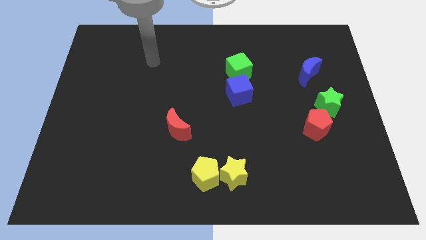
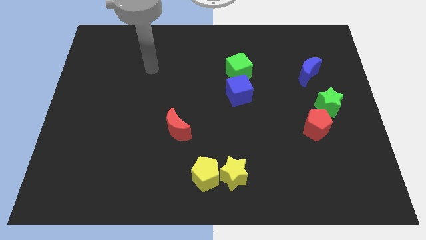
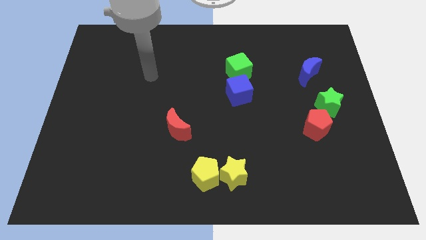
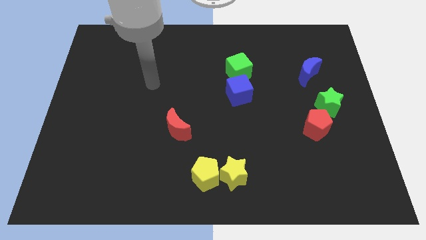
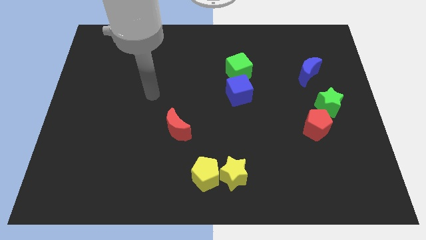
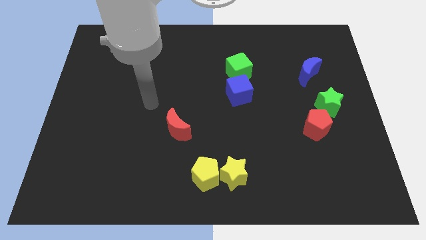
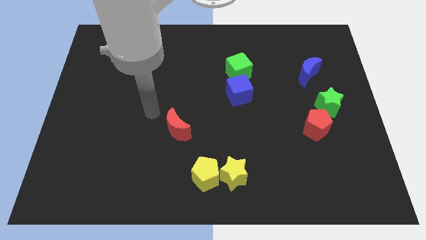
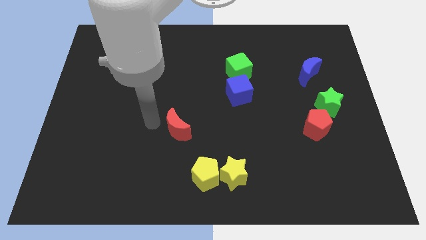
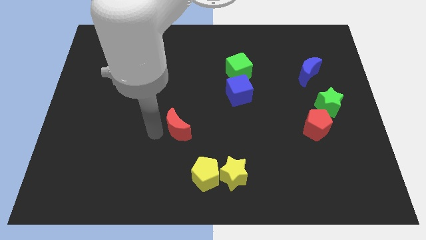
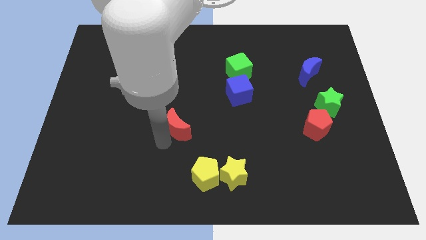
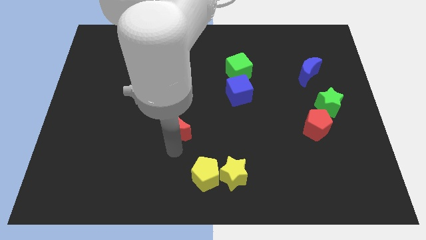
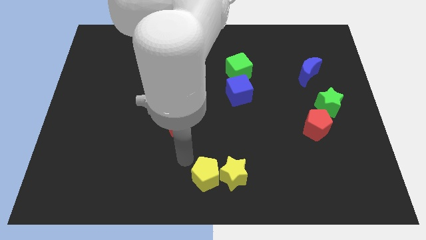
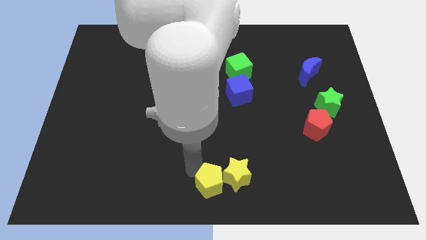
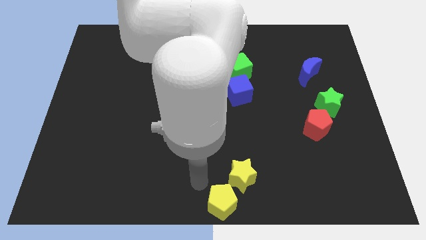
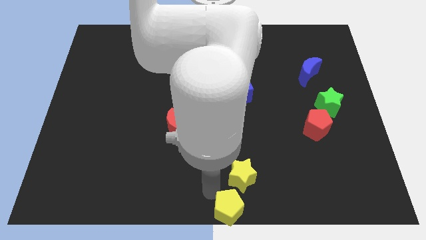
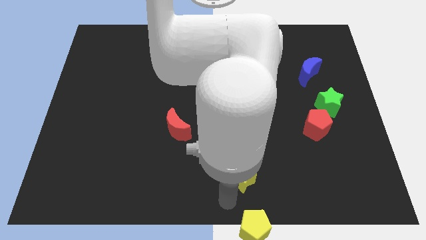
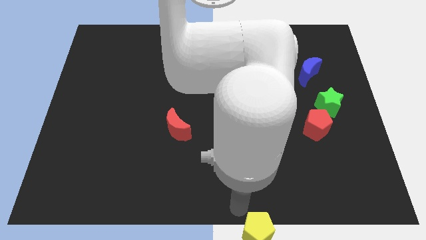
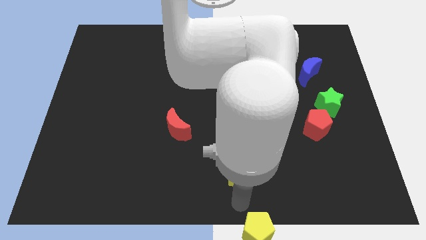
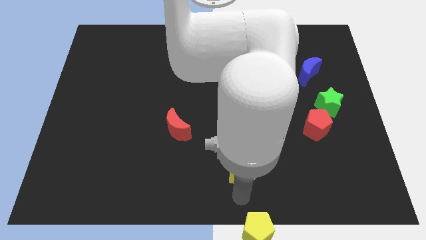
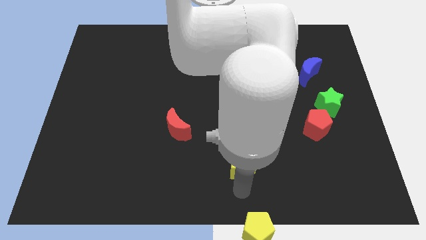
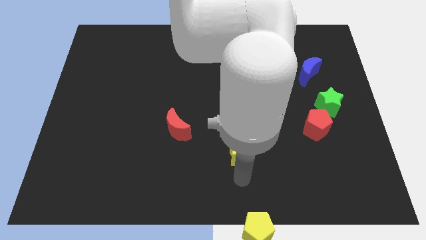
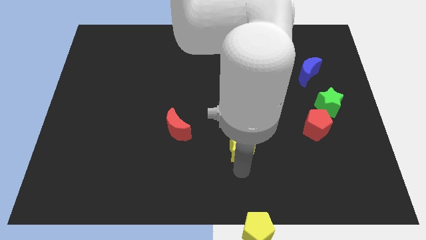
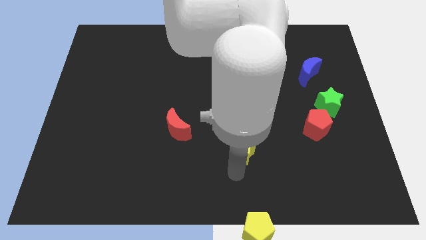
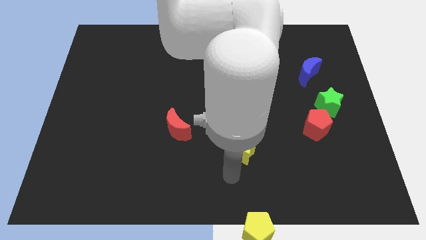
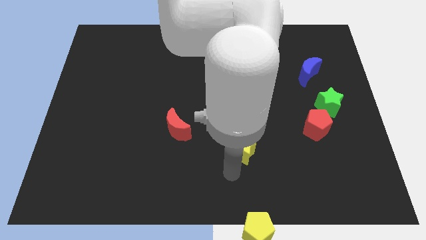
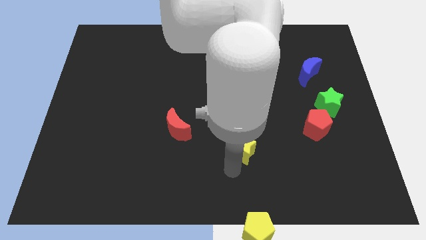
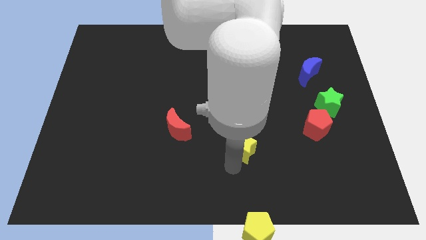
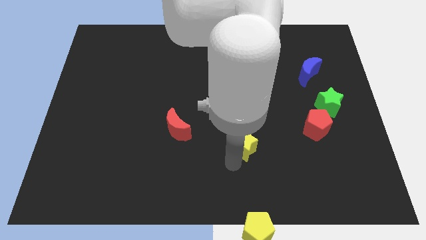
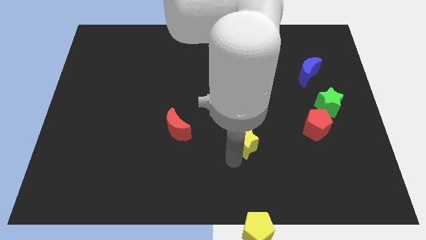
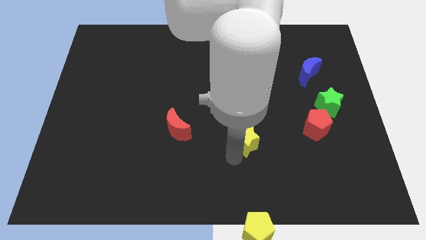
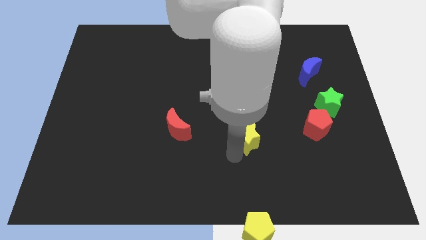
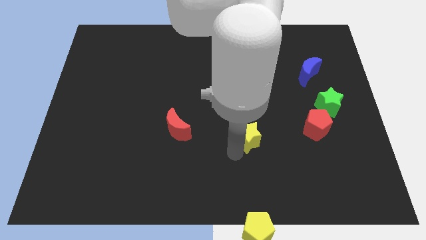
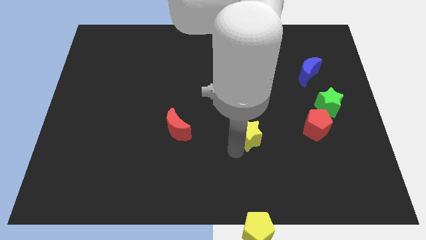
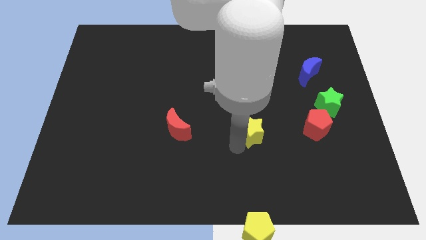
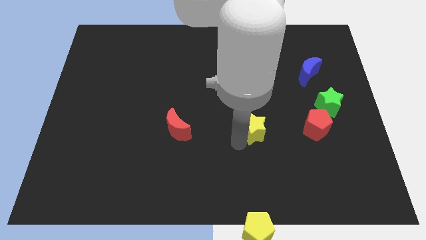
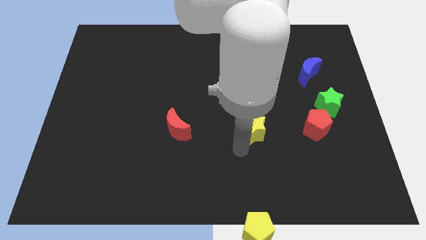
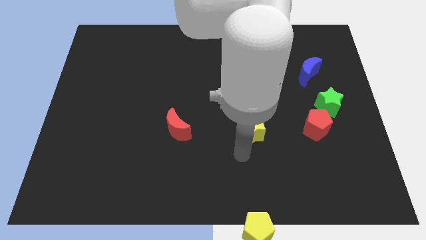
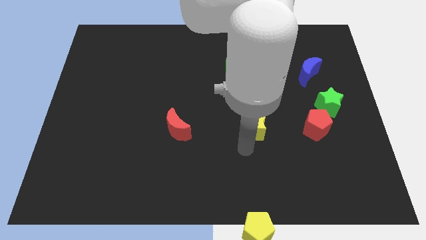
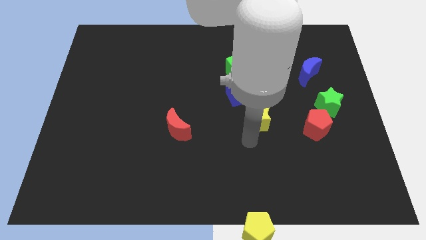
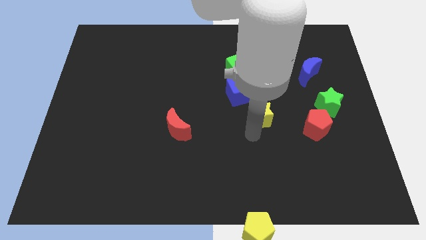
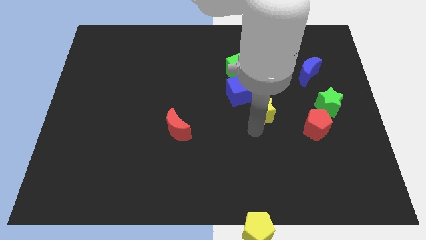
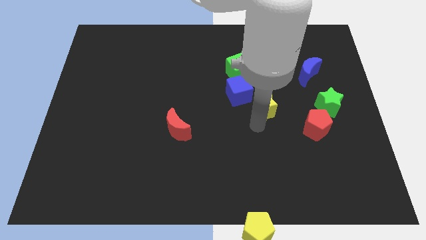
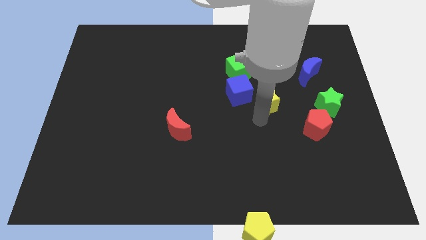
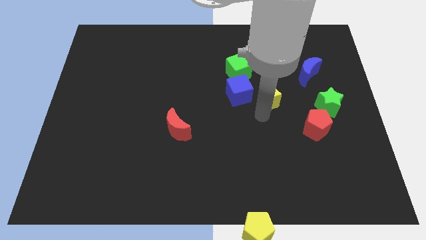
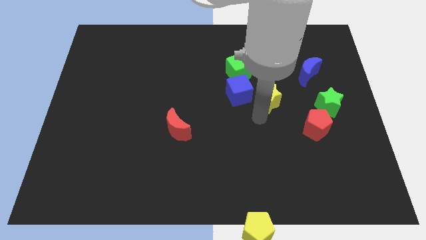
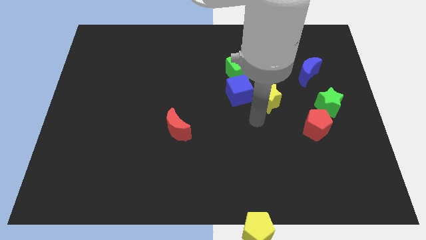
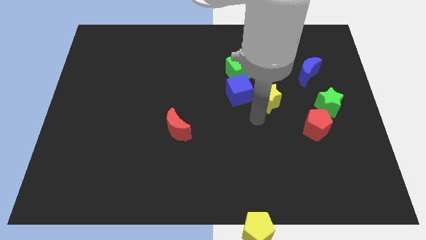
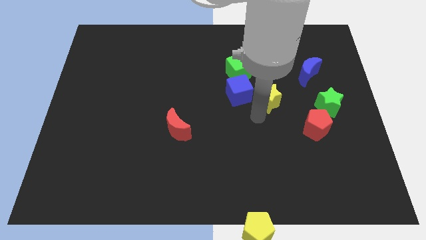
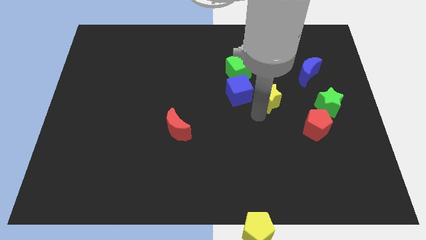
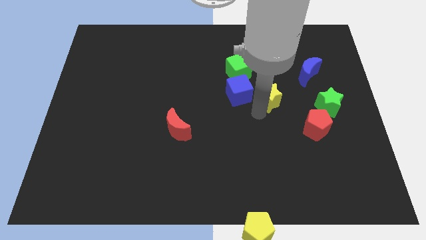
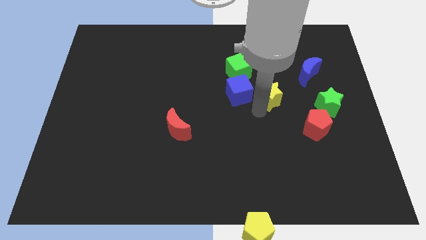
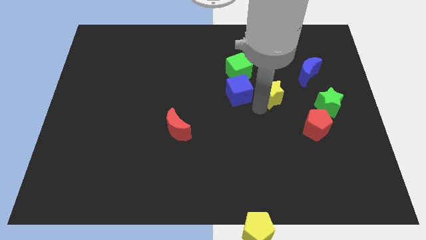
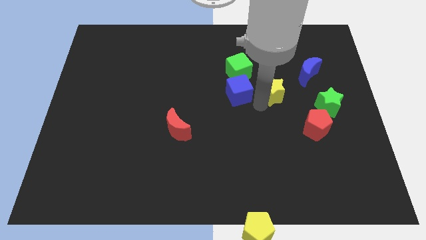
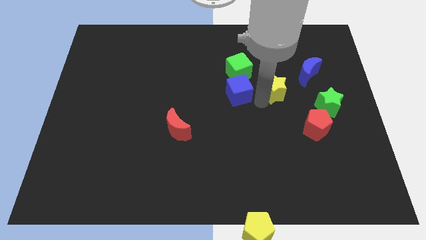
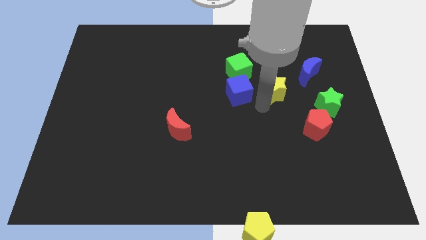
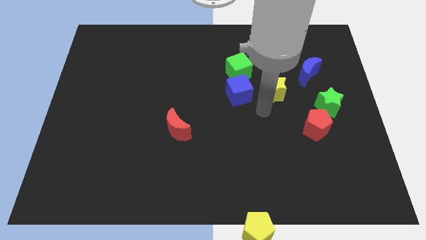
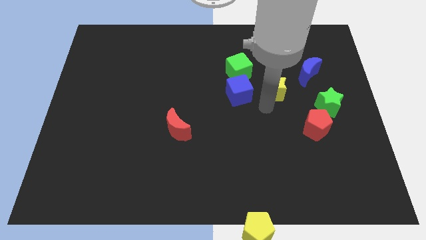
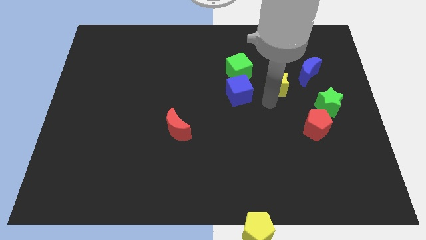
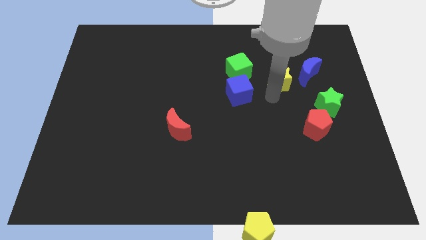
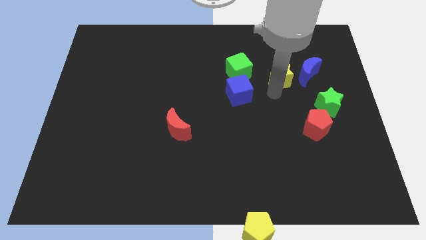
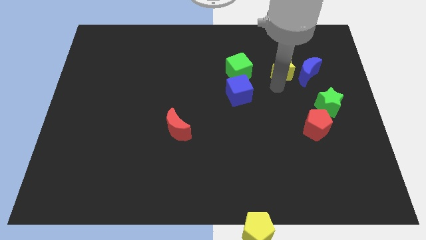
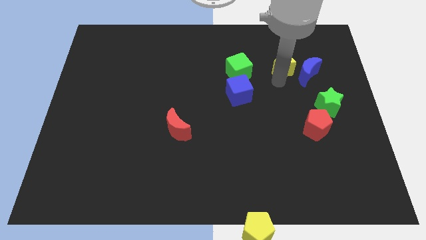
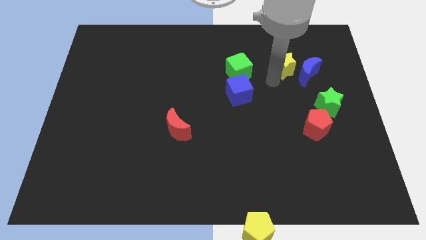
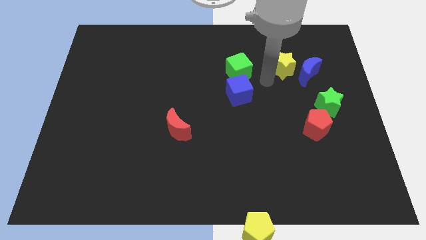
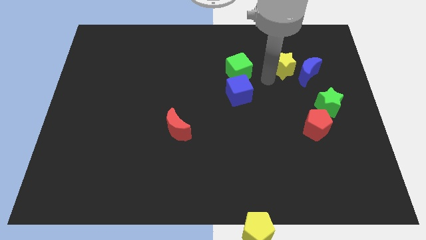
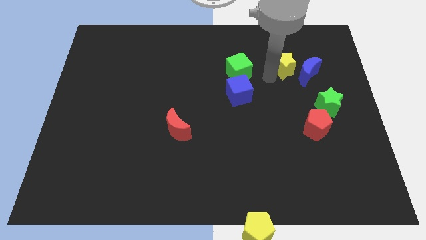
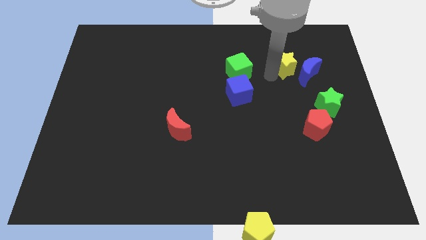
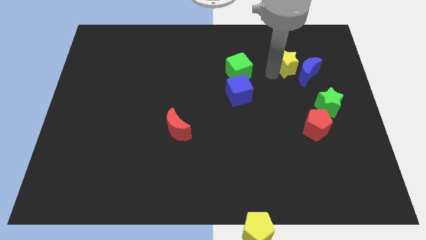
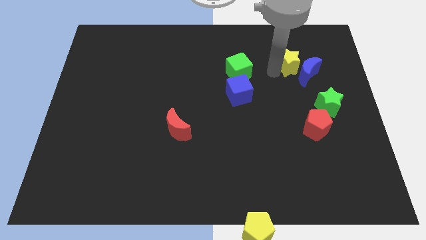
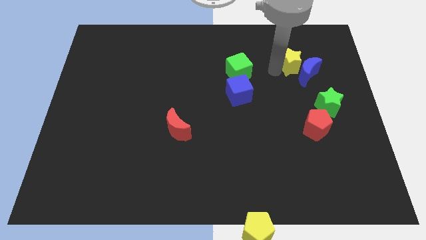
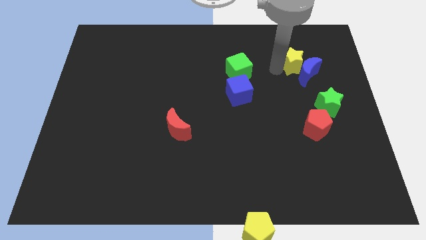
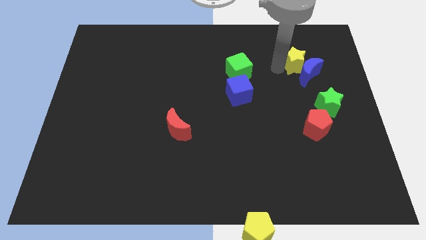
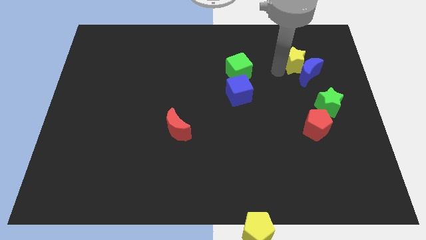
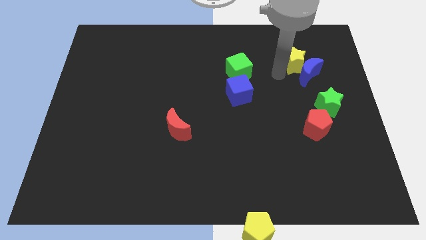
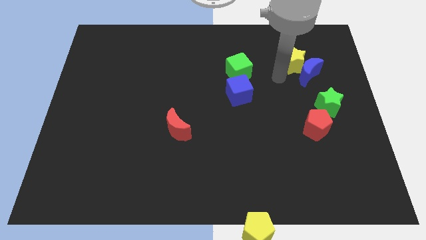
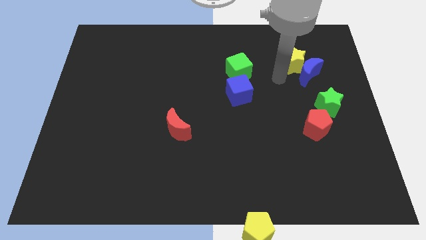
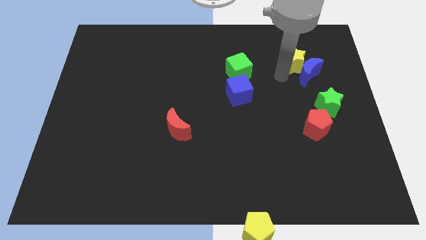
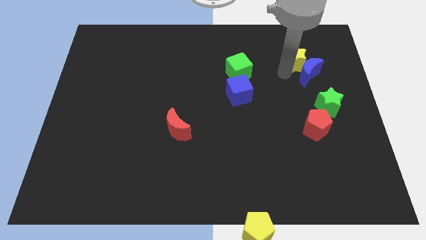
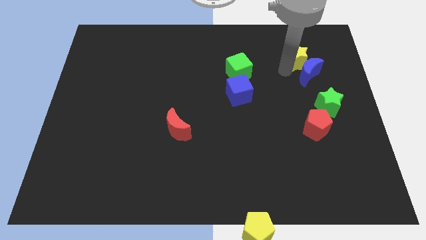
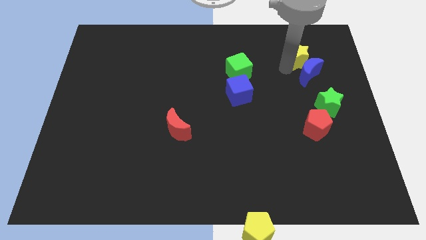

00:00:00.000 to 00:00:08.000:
put the yellow star to the top right side of the blue moon
